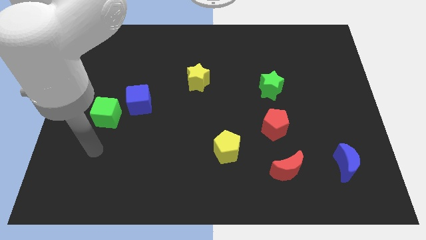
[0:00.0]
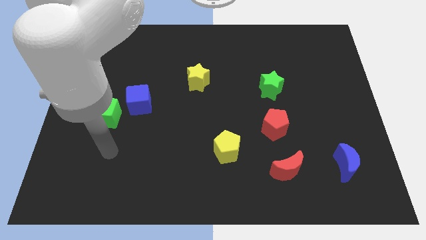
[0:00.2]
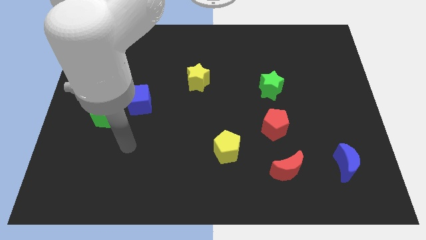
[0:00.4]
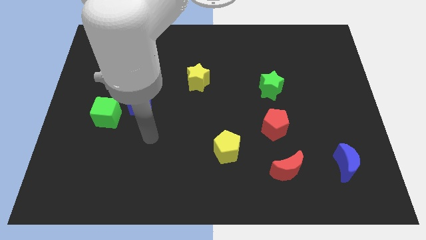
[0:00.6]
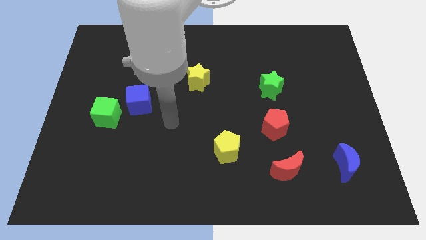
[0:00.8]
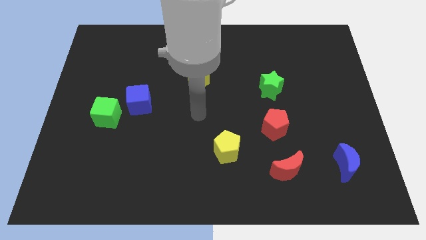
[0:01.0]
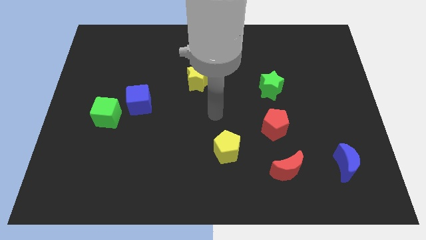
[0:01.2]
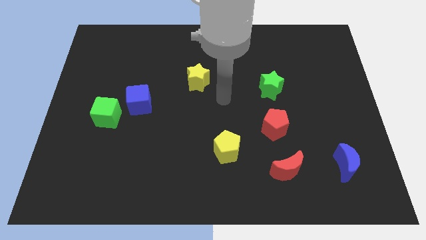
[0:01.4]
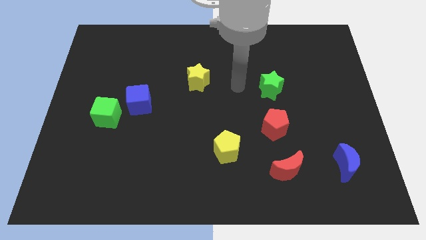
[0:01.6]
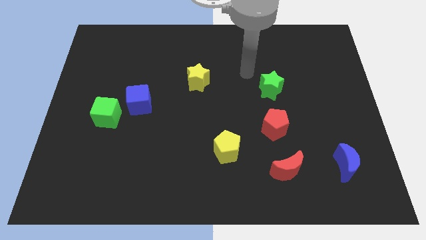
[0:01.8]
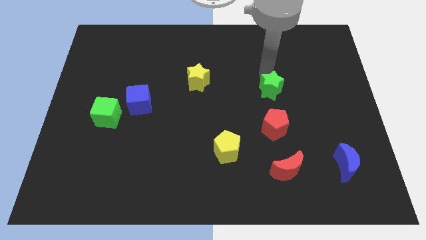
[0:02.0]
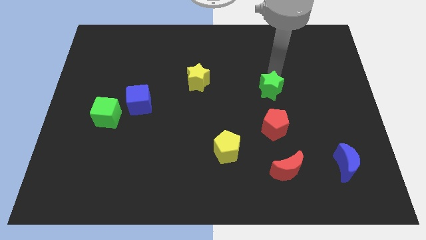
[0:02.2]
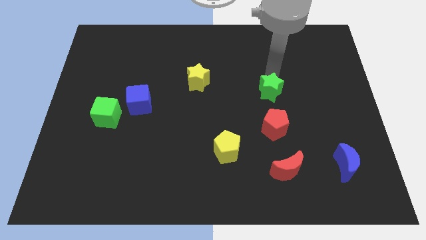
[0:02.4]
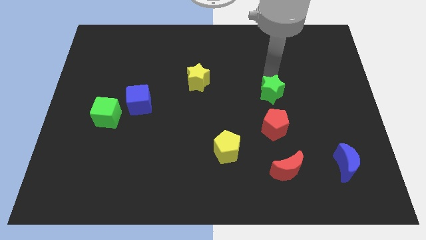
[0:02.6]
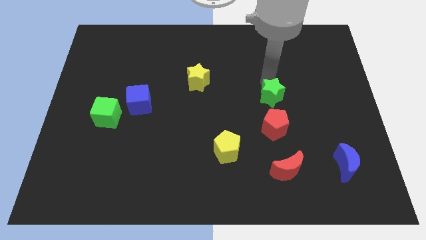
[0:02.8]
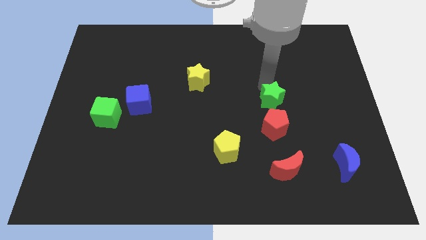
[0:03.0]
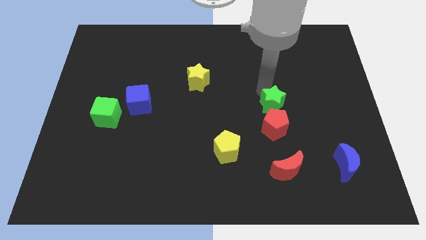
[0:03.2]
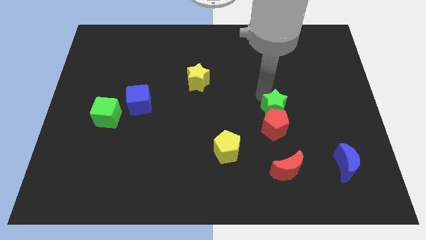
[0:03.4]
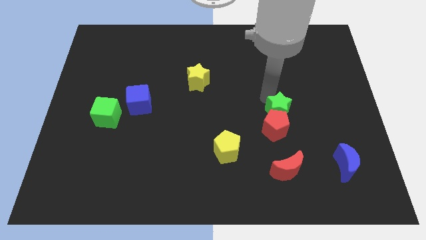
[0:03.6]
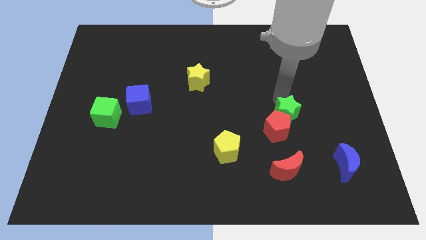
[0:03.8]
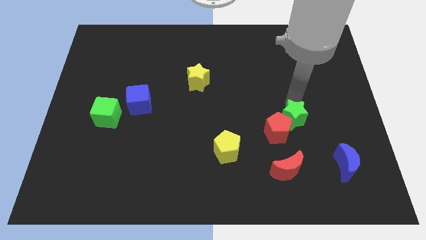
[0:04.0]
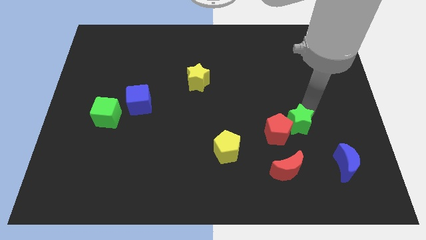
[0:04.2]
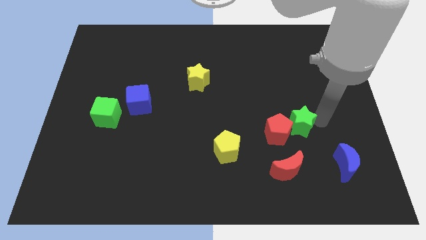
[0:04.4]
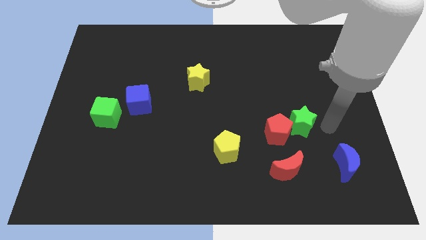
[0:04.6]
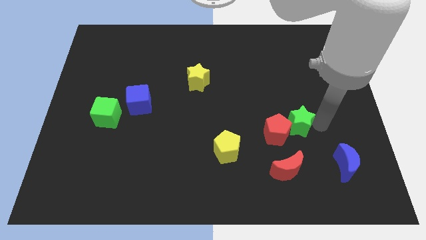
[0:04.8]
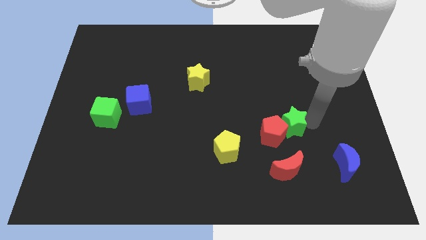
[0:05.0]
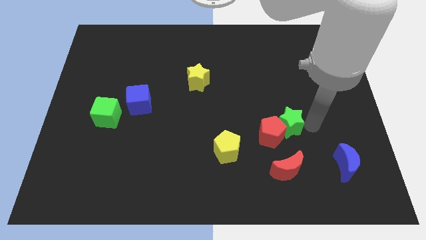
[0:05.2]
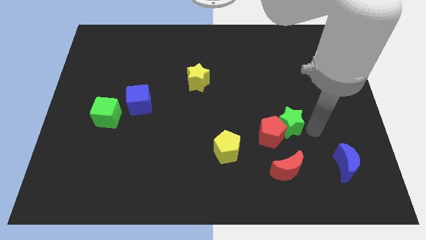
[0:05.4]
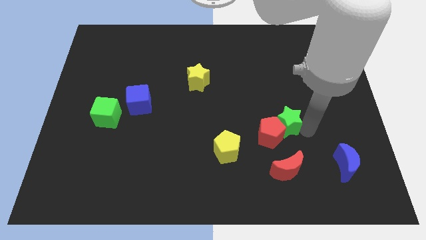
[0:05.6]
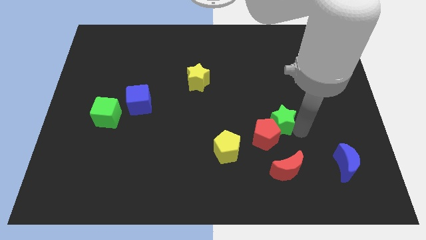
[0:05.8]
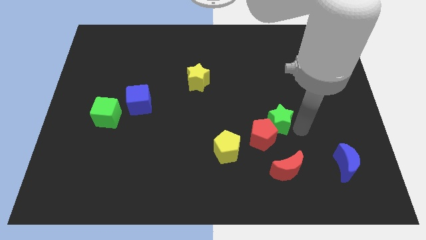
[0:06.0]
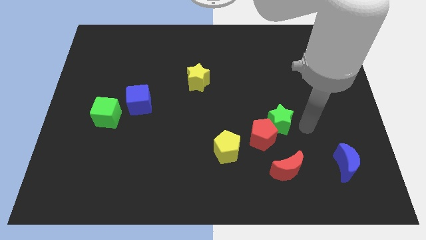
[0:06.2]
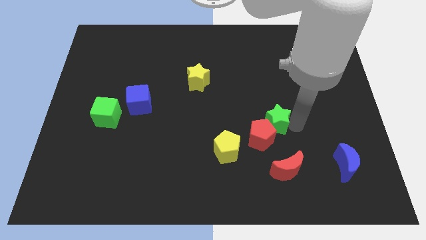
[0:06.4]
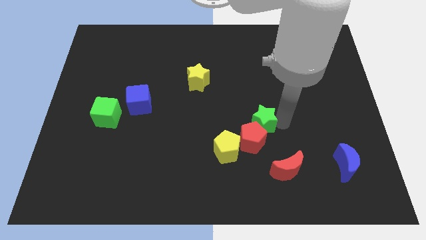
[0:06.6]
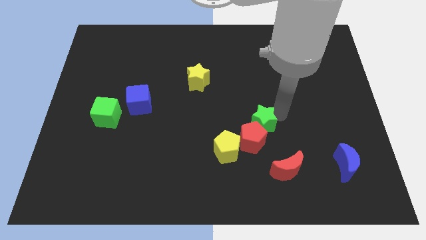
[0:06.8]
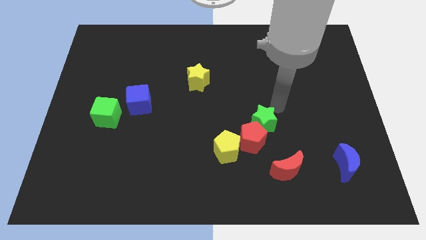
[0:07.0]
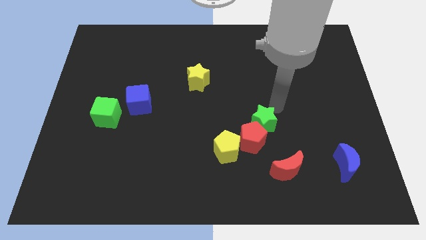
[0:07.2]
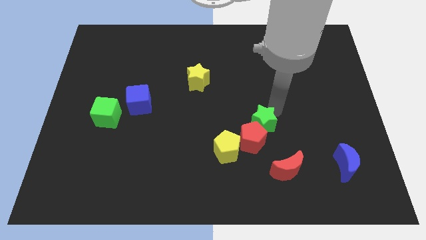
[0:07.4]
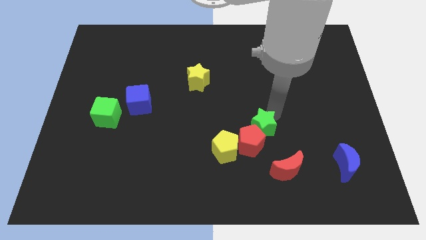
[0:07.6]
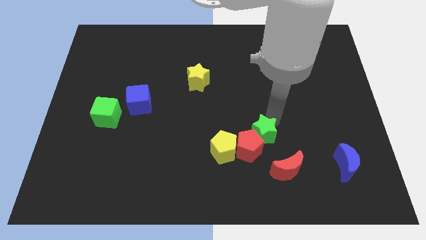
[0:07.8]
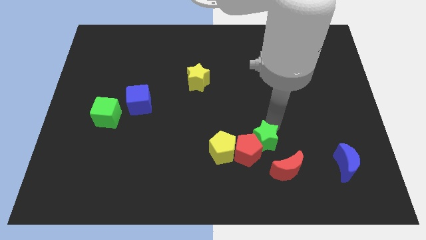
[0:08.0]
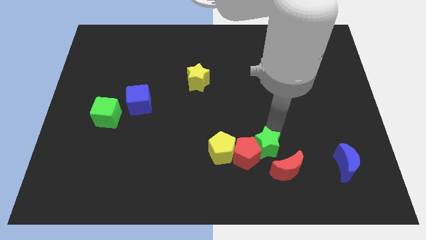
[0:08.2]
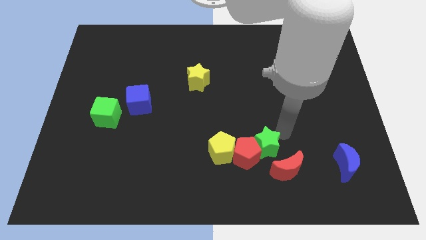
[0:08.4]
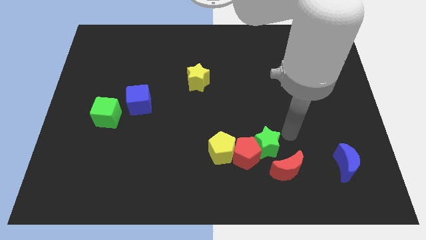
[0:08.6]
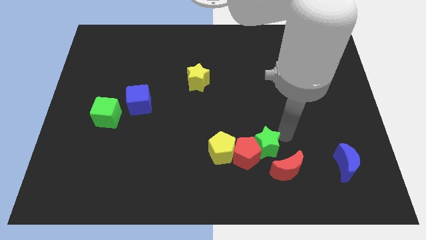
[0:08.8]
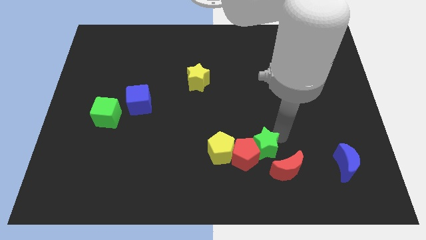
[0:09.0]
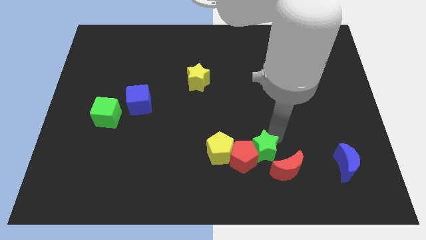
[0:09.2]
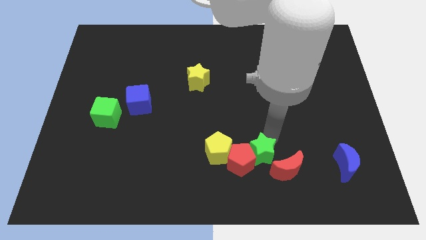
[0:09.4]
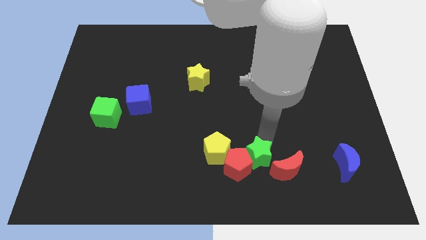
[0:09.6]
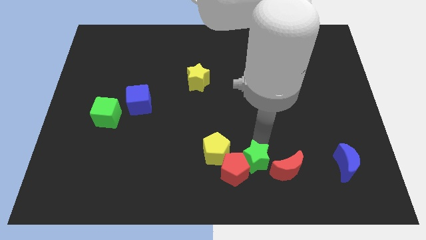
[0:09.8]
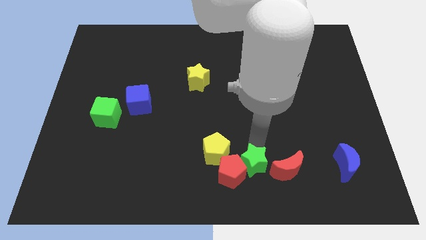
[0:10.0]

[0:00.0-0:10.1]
move the green star to the bottom

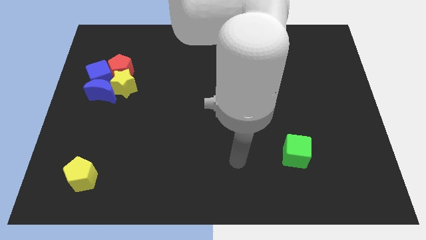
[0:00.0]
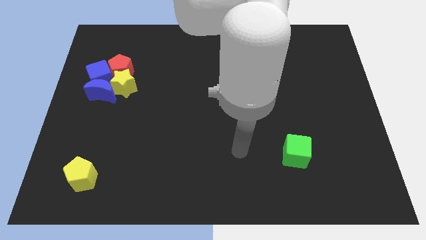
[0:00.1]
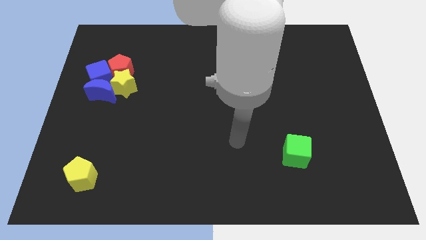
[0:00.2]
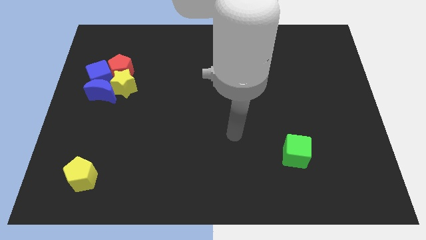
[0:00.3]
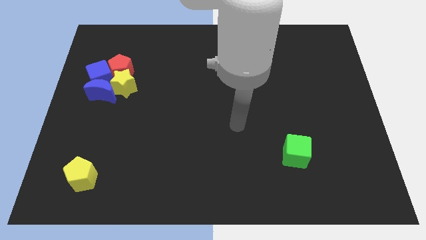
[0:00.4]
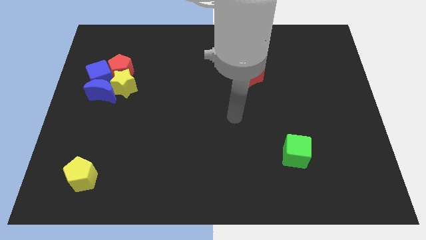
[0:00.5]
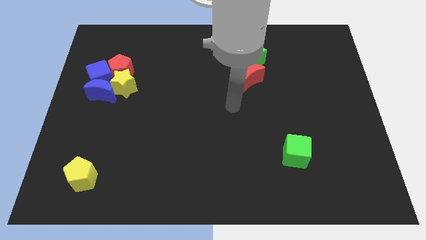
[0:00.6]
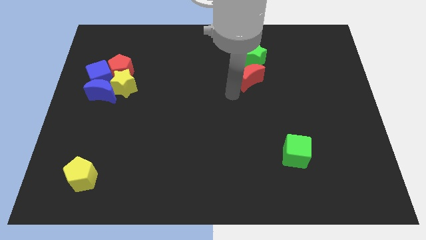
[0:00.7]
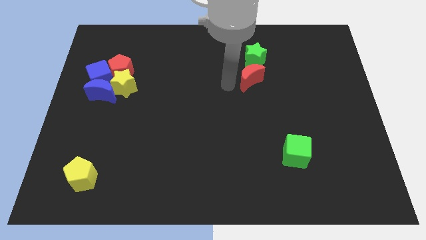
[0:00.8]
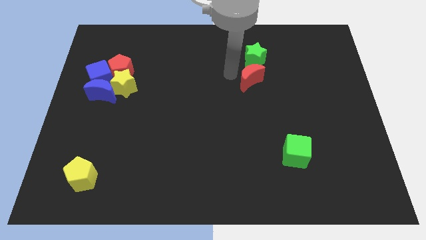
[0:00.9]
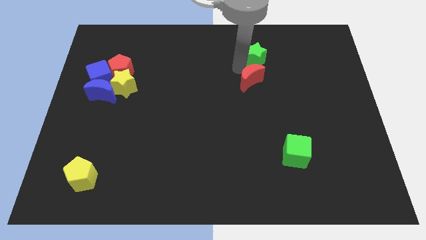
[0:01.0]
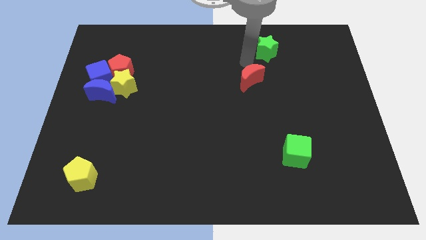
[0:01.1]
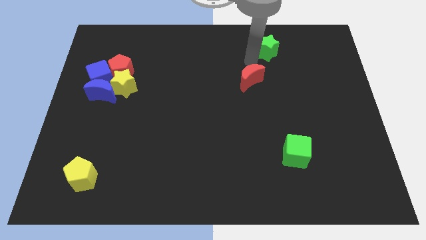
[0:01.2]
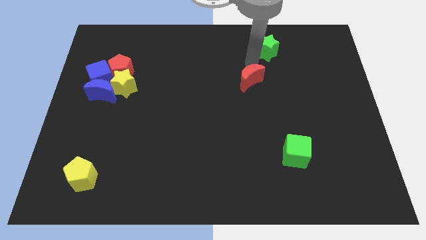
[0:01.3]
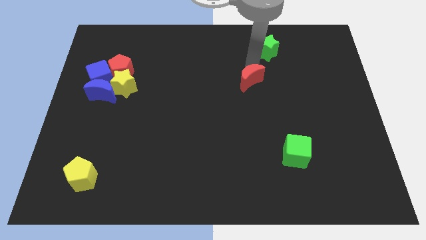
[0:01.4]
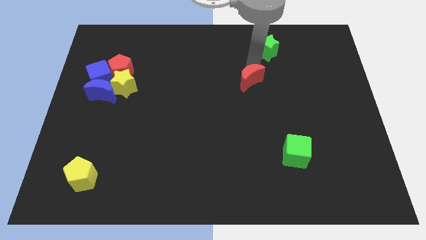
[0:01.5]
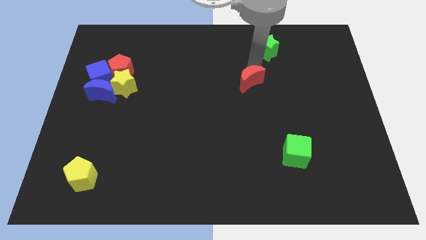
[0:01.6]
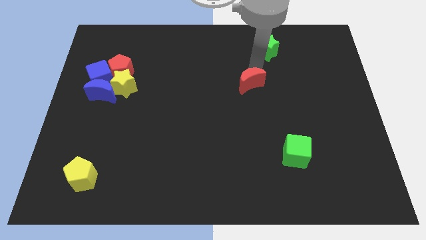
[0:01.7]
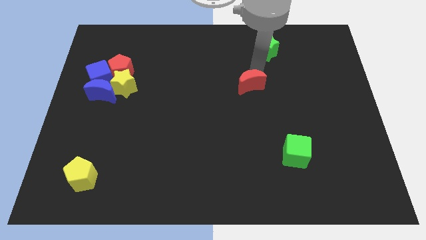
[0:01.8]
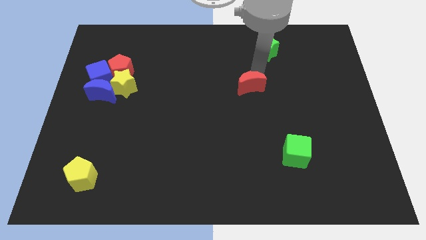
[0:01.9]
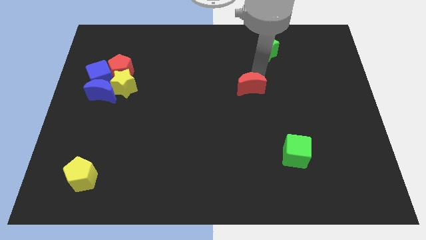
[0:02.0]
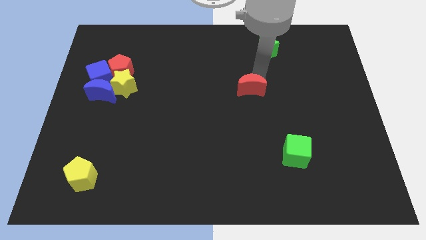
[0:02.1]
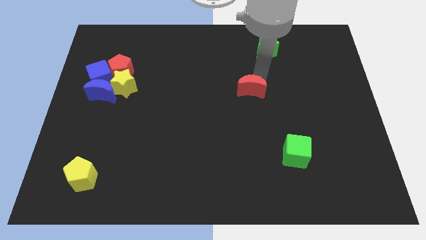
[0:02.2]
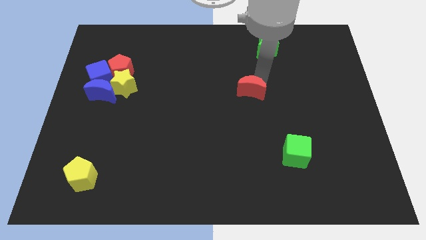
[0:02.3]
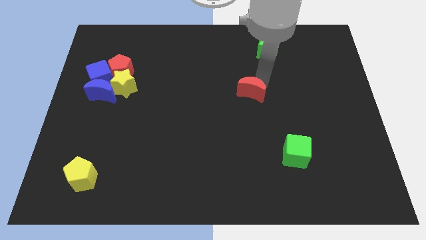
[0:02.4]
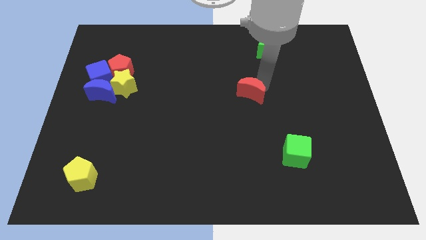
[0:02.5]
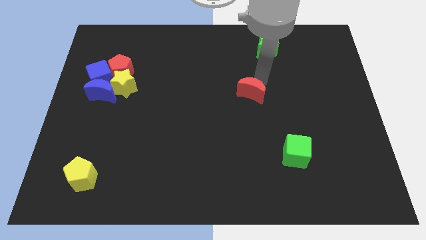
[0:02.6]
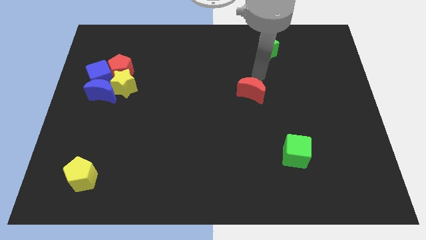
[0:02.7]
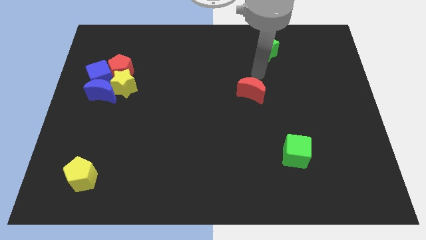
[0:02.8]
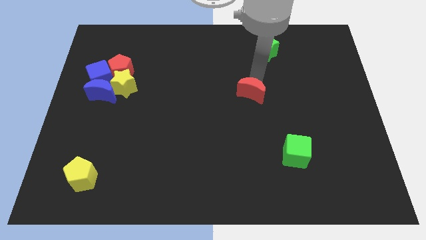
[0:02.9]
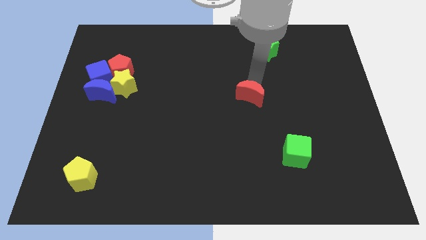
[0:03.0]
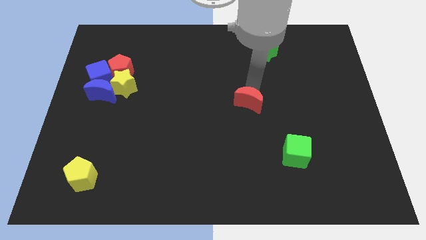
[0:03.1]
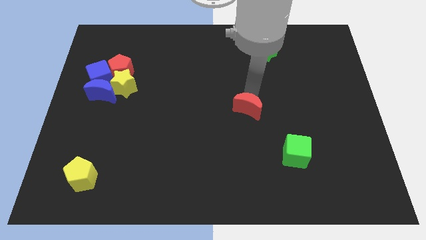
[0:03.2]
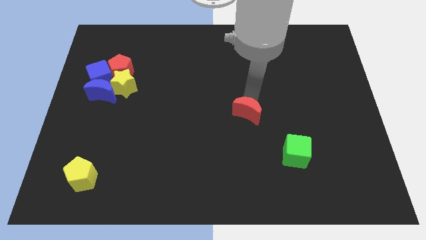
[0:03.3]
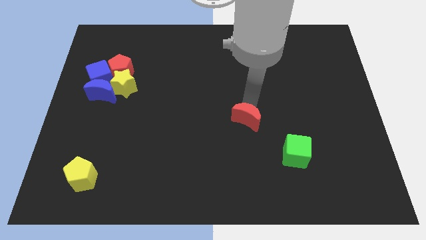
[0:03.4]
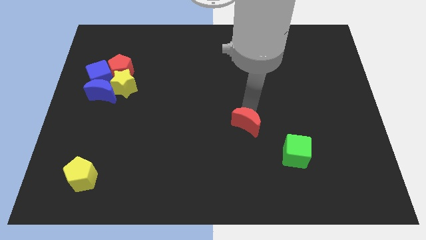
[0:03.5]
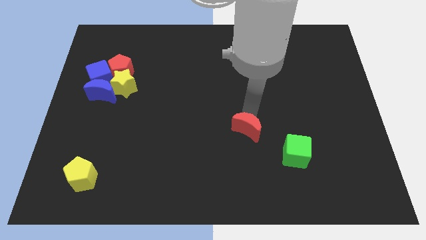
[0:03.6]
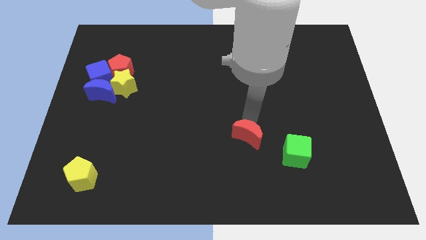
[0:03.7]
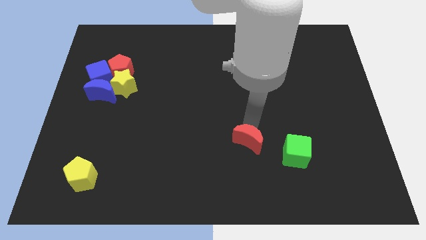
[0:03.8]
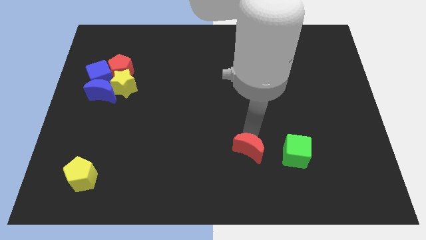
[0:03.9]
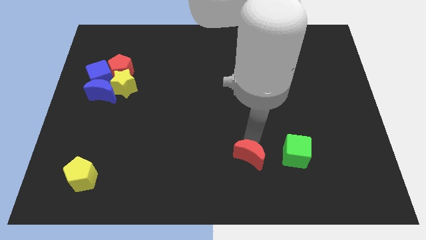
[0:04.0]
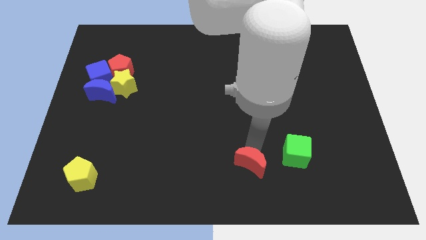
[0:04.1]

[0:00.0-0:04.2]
move the red moon to the bottom side
